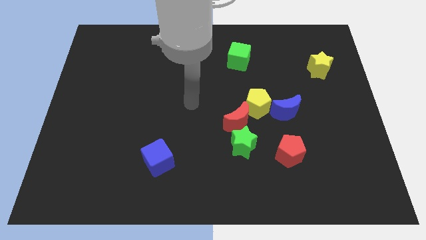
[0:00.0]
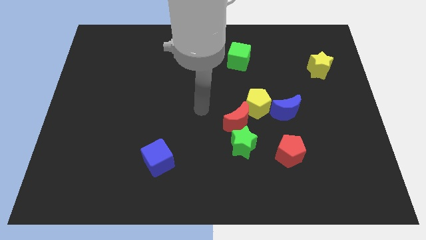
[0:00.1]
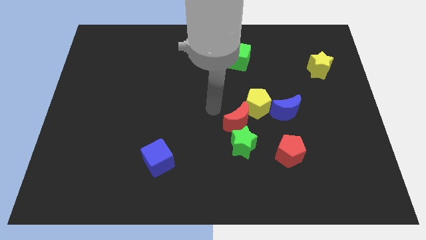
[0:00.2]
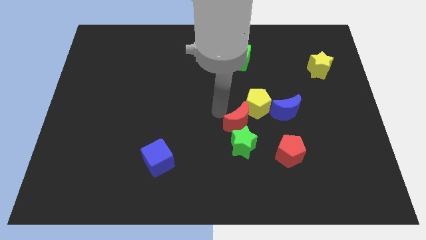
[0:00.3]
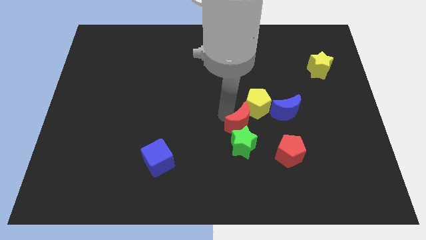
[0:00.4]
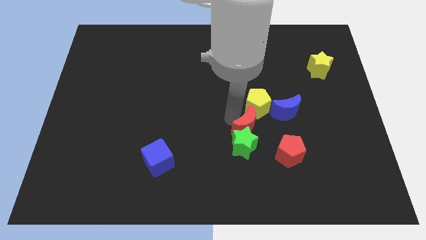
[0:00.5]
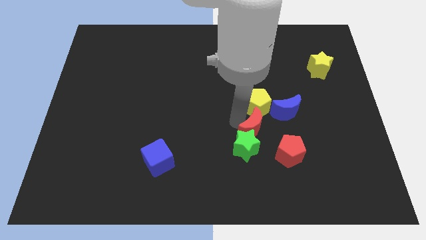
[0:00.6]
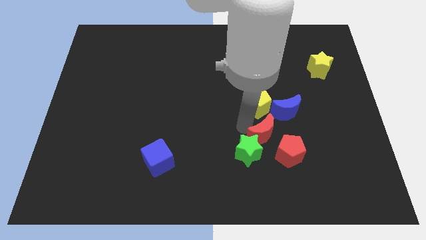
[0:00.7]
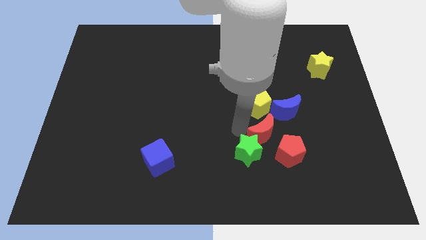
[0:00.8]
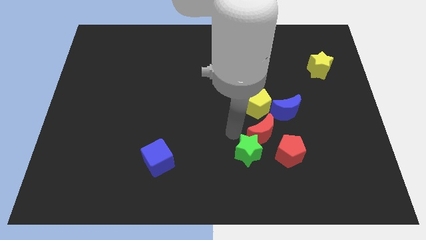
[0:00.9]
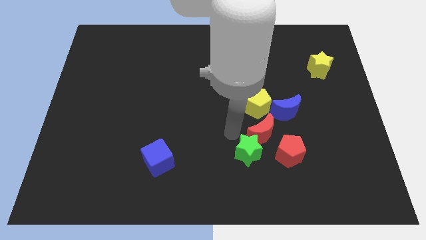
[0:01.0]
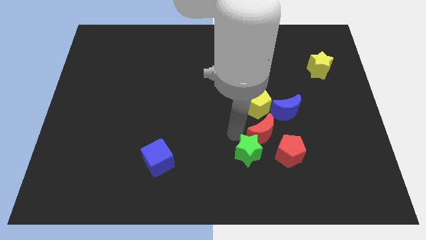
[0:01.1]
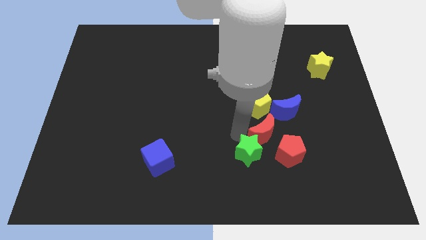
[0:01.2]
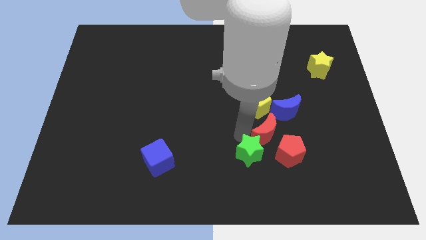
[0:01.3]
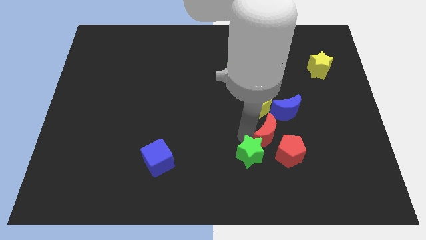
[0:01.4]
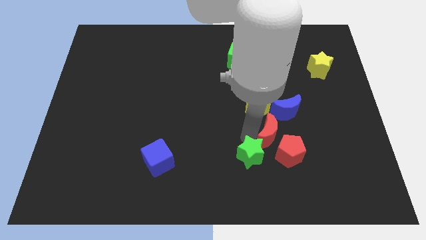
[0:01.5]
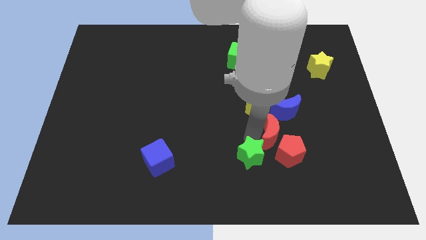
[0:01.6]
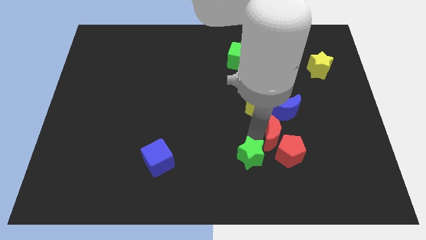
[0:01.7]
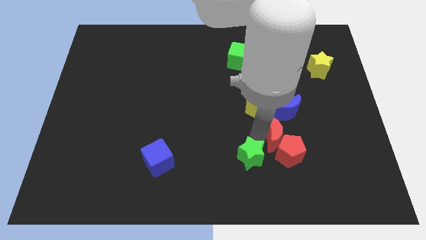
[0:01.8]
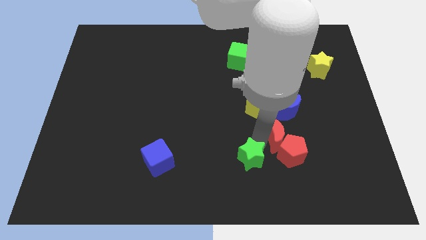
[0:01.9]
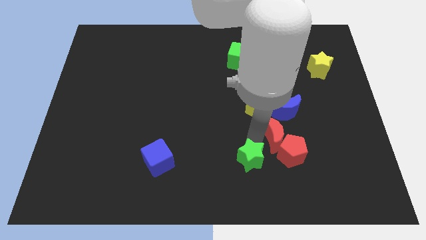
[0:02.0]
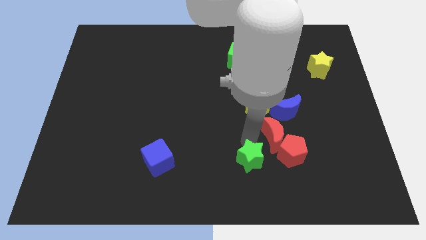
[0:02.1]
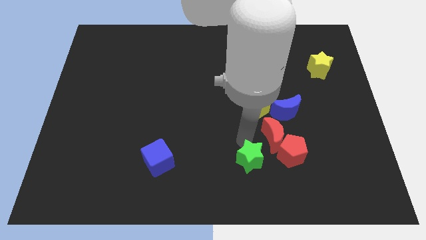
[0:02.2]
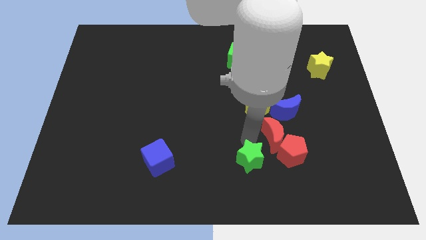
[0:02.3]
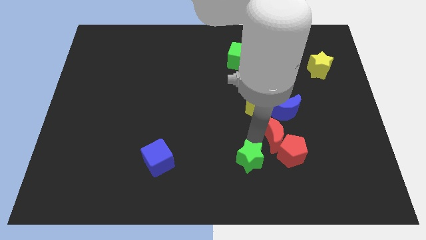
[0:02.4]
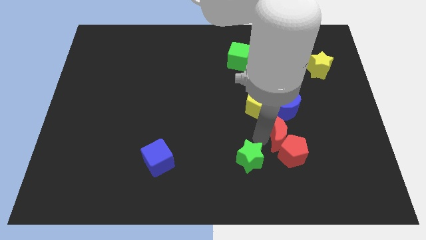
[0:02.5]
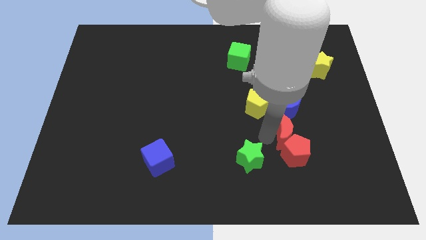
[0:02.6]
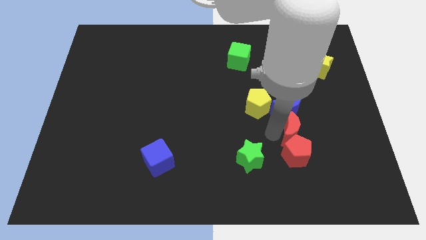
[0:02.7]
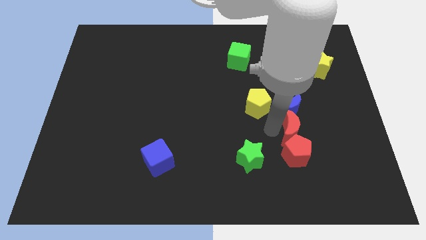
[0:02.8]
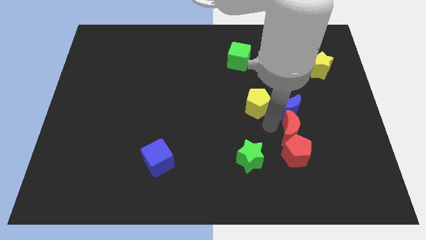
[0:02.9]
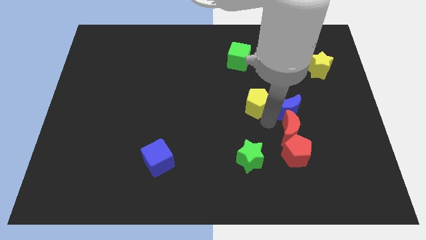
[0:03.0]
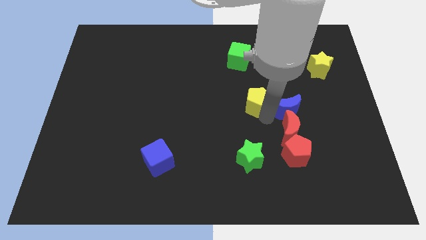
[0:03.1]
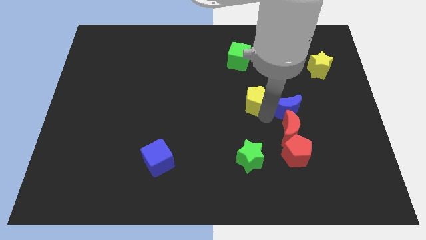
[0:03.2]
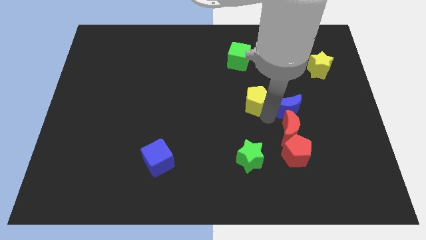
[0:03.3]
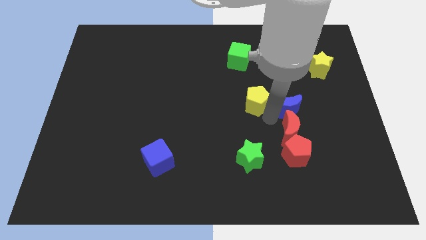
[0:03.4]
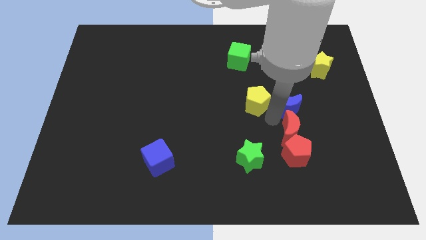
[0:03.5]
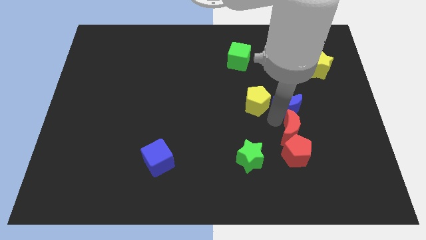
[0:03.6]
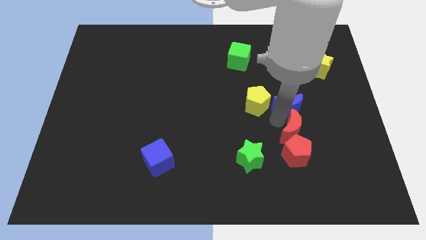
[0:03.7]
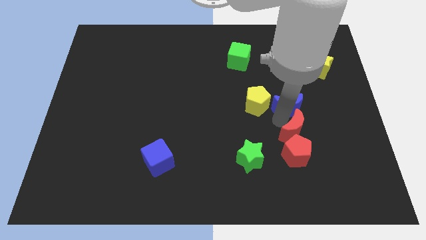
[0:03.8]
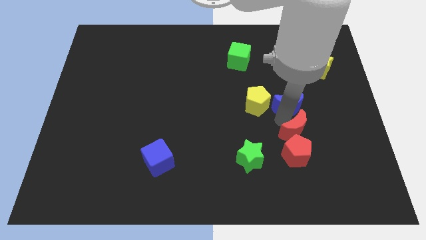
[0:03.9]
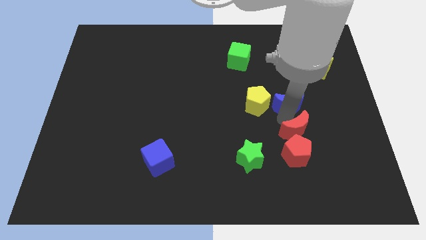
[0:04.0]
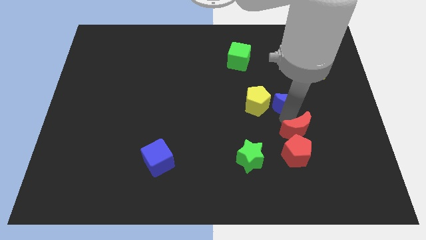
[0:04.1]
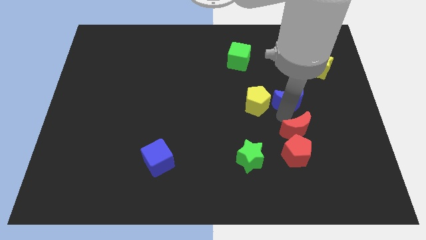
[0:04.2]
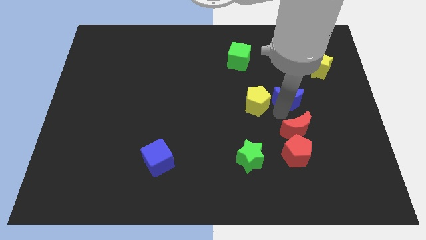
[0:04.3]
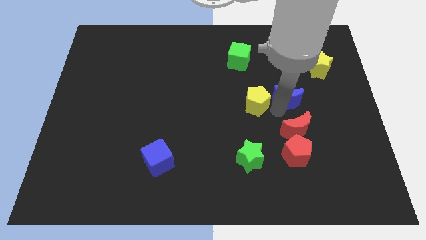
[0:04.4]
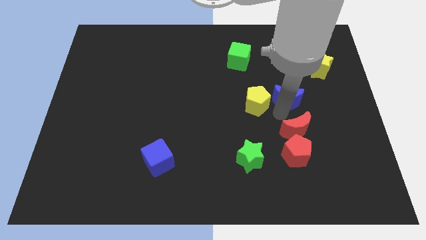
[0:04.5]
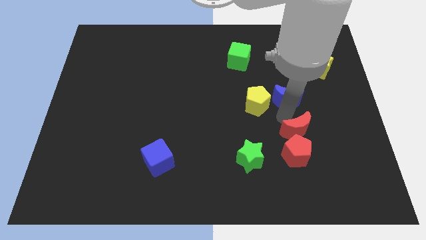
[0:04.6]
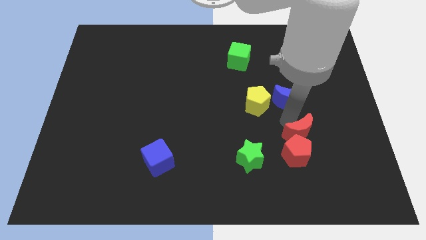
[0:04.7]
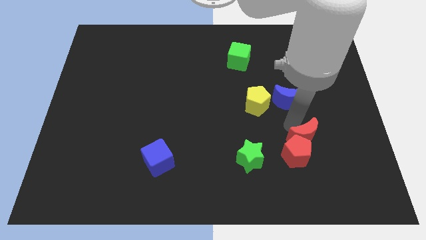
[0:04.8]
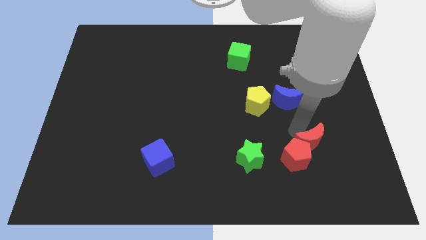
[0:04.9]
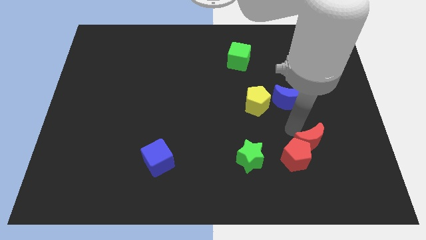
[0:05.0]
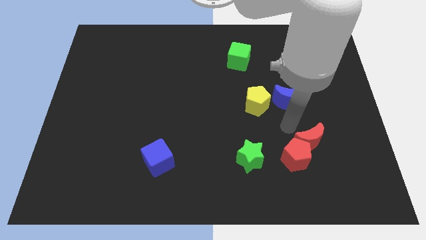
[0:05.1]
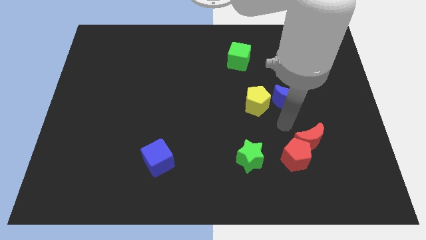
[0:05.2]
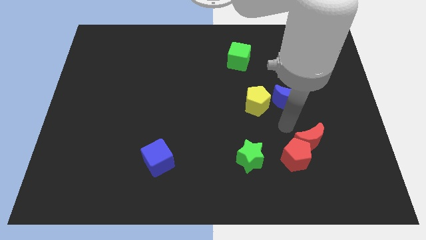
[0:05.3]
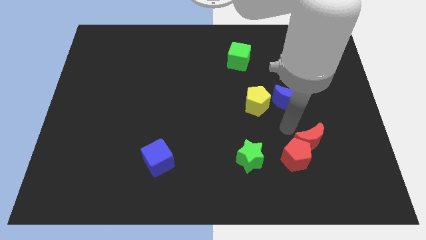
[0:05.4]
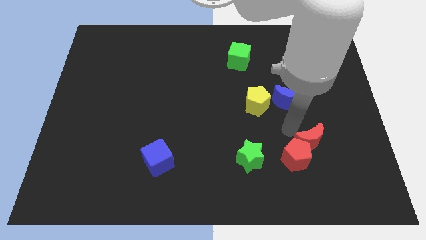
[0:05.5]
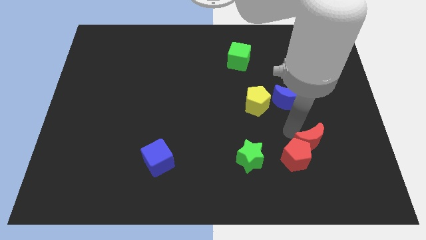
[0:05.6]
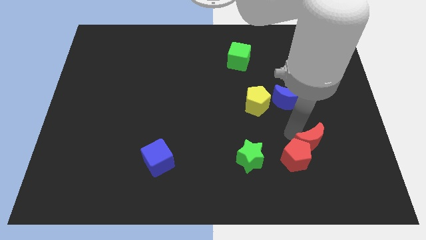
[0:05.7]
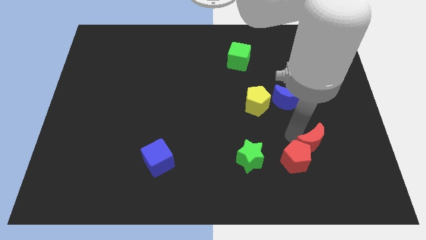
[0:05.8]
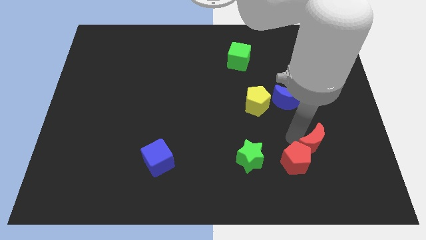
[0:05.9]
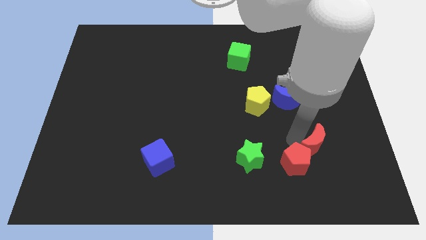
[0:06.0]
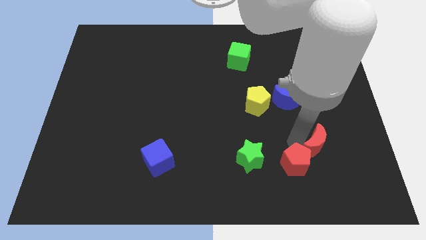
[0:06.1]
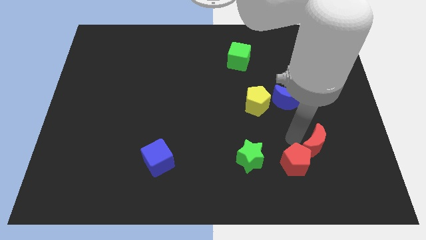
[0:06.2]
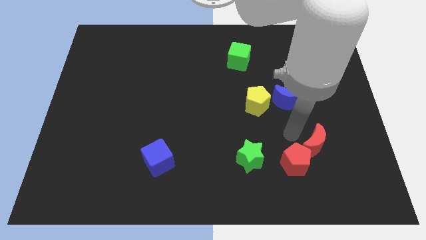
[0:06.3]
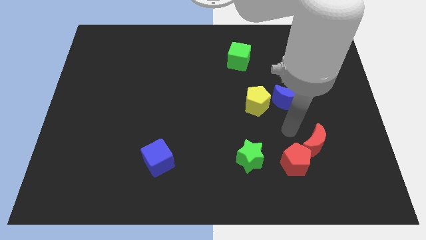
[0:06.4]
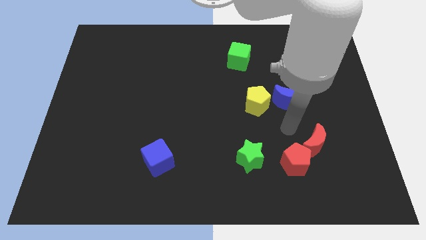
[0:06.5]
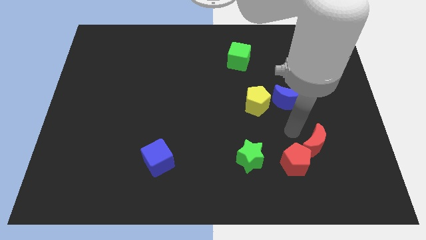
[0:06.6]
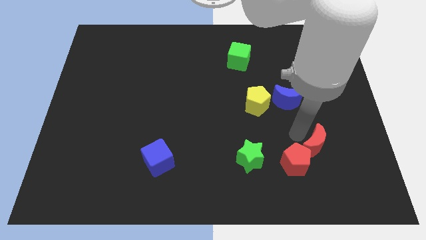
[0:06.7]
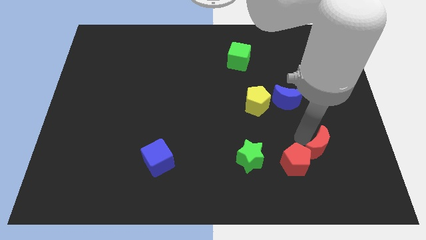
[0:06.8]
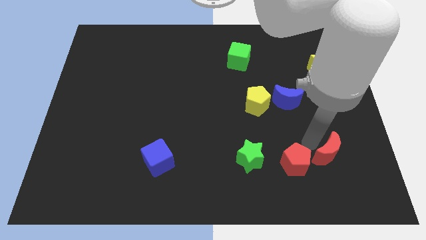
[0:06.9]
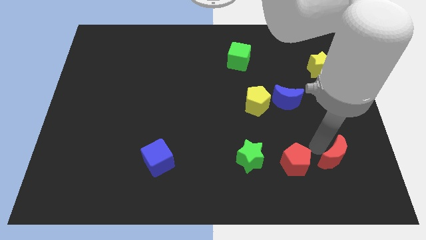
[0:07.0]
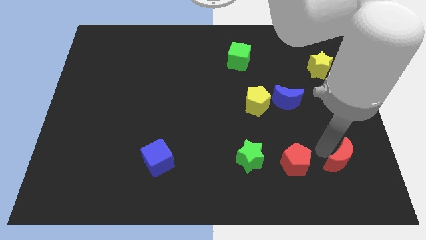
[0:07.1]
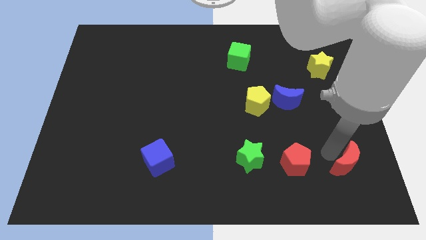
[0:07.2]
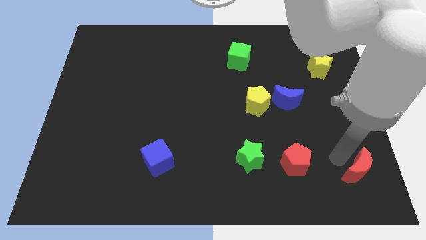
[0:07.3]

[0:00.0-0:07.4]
push the red moon to the bottom right
